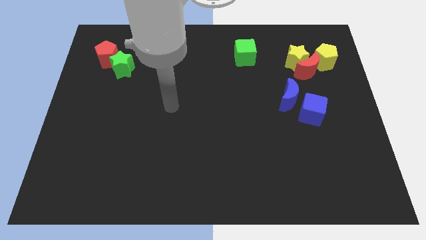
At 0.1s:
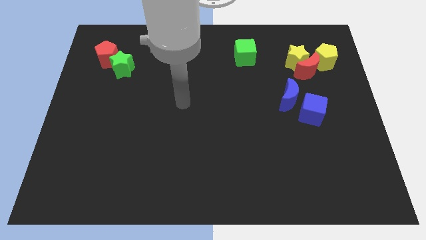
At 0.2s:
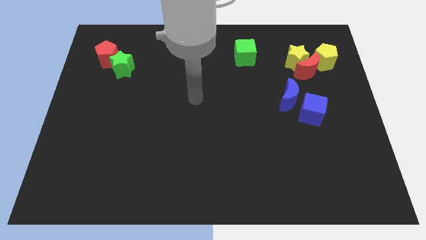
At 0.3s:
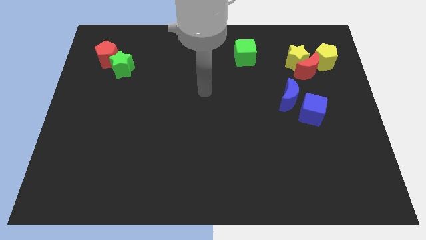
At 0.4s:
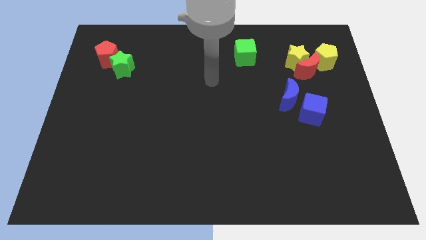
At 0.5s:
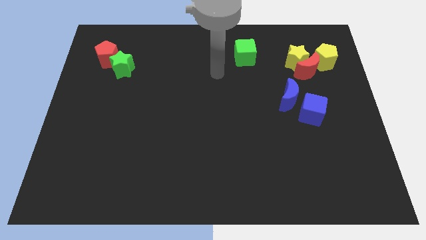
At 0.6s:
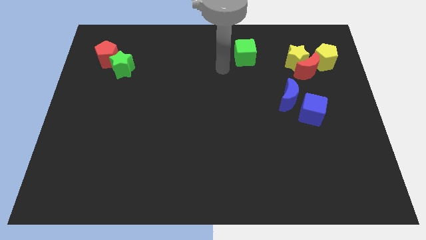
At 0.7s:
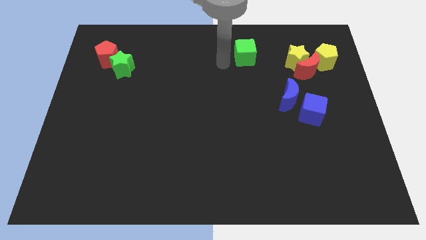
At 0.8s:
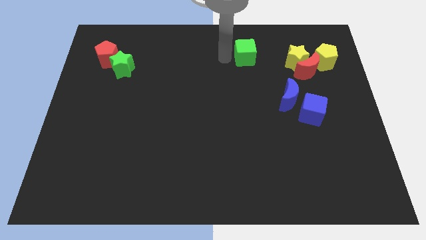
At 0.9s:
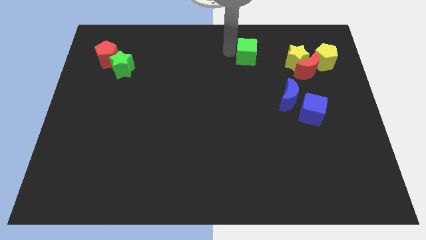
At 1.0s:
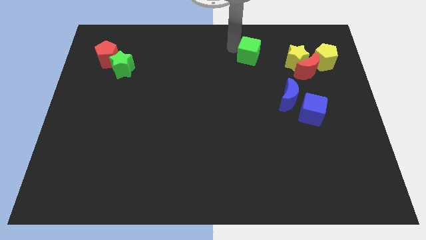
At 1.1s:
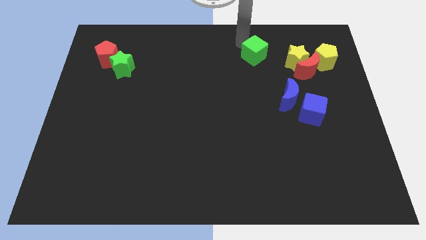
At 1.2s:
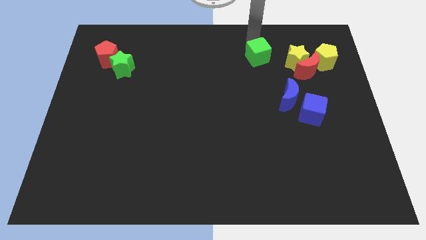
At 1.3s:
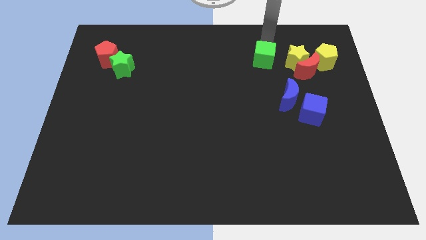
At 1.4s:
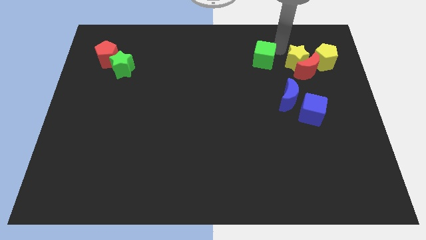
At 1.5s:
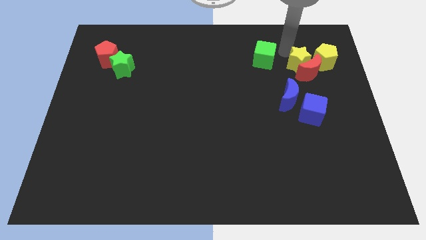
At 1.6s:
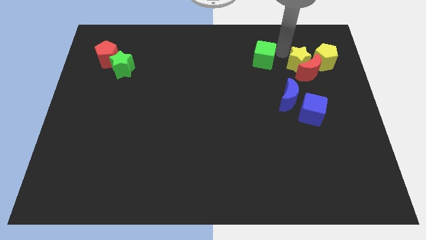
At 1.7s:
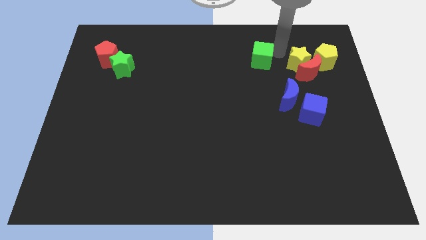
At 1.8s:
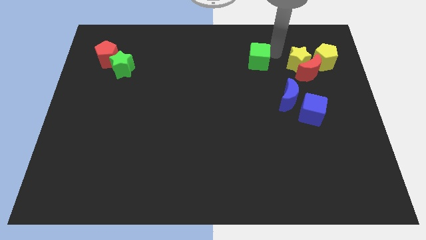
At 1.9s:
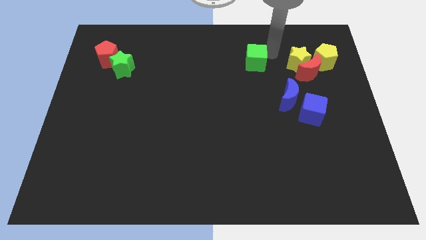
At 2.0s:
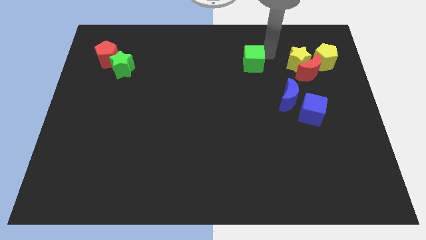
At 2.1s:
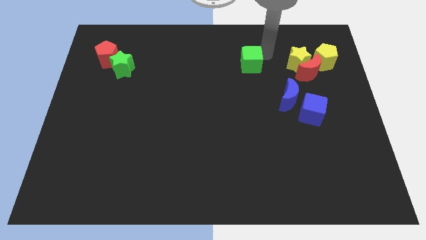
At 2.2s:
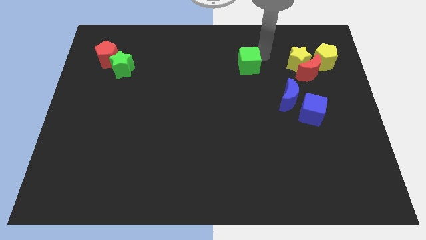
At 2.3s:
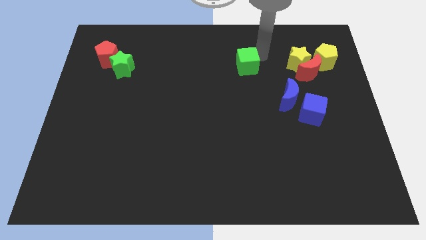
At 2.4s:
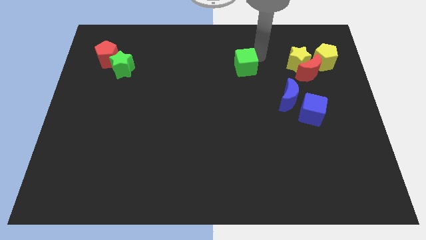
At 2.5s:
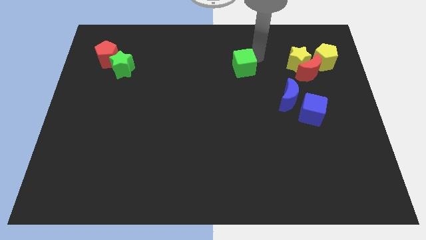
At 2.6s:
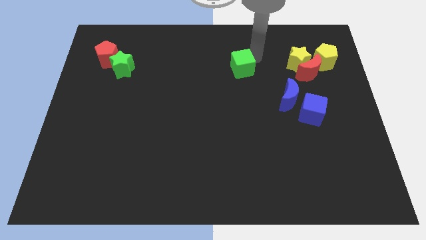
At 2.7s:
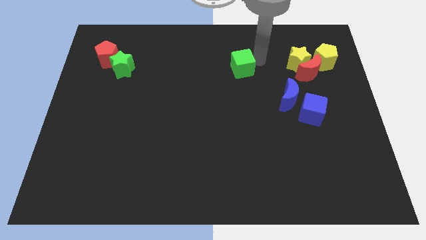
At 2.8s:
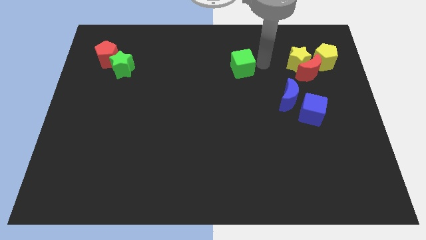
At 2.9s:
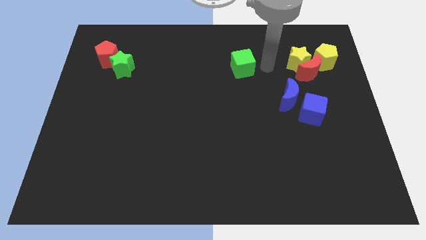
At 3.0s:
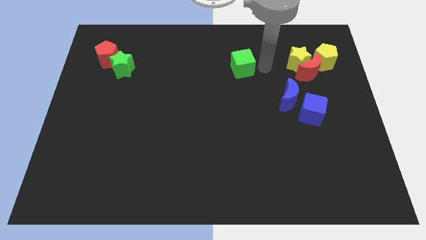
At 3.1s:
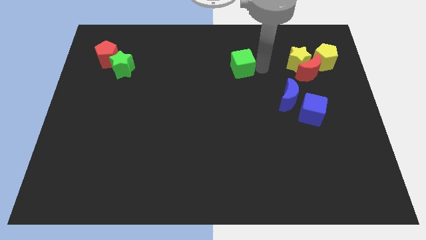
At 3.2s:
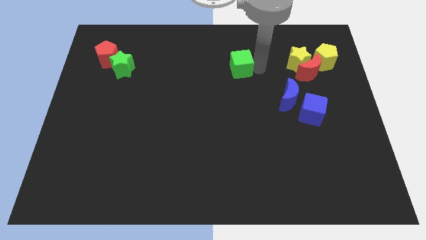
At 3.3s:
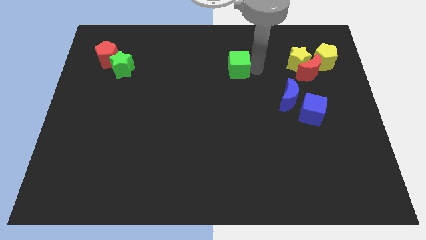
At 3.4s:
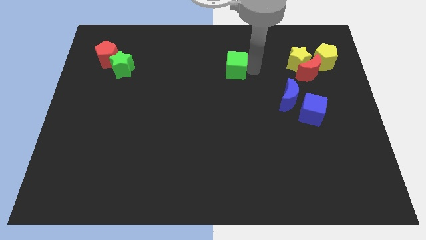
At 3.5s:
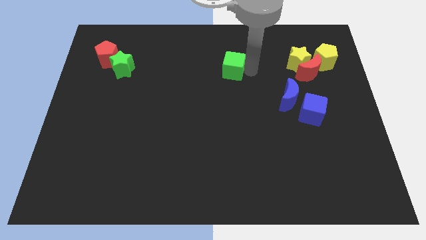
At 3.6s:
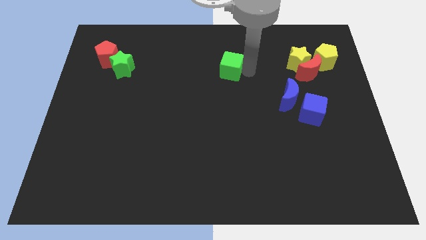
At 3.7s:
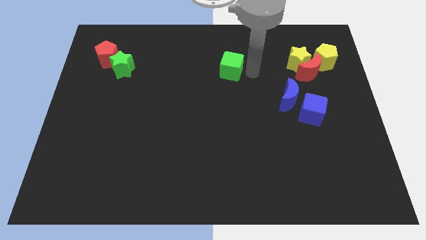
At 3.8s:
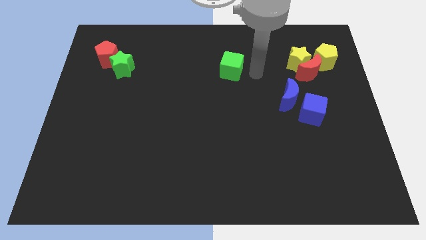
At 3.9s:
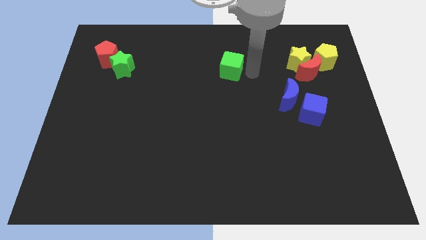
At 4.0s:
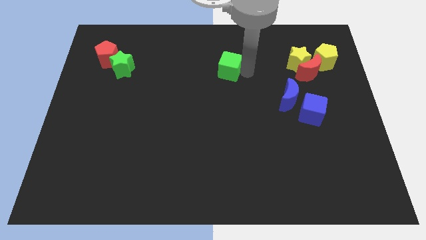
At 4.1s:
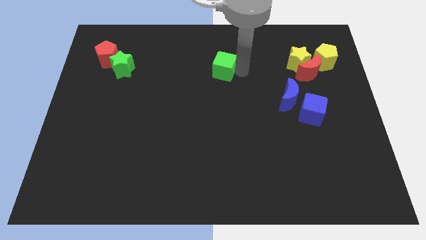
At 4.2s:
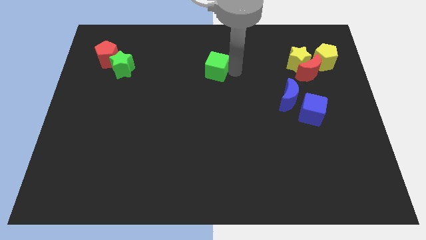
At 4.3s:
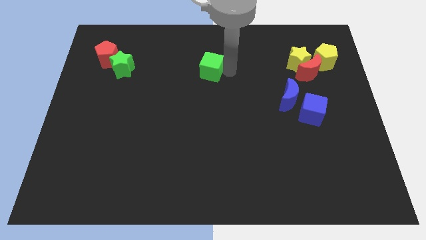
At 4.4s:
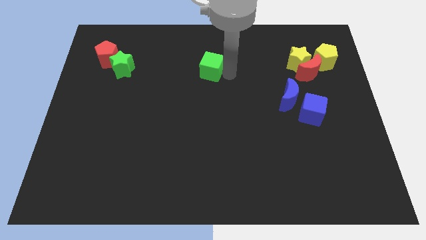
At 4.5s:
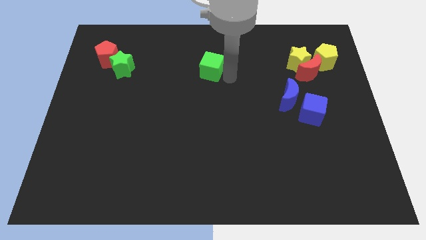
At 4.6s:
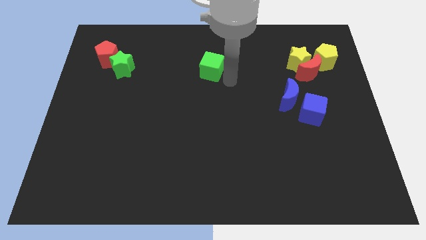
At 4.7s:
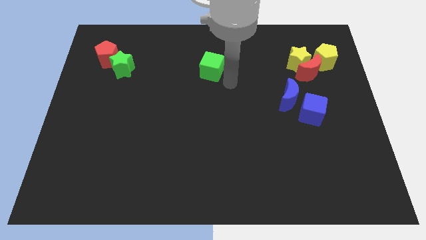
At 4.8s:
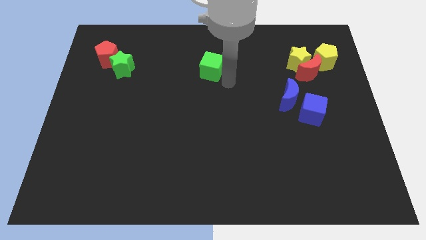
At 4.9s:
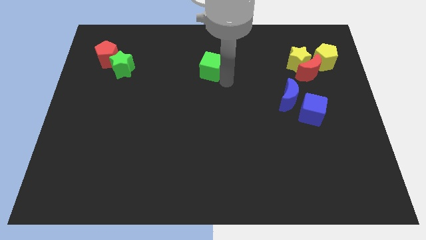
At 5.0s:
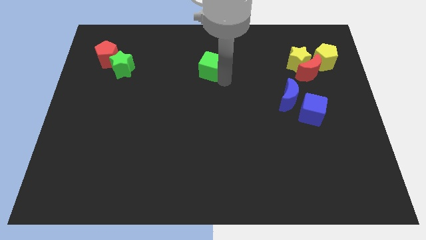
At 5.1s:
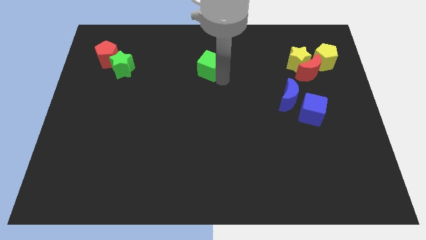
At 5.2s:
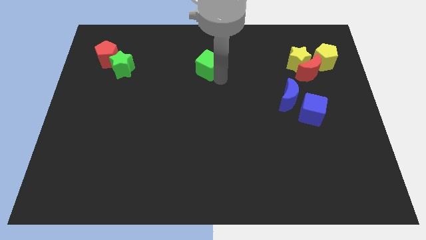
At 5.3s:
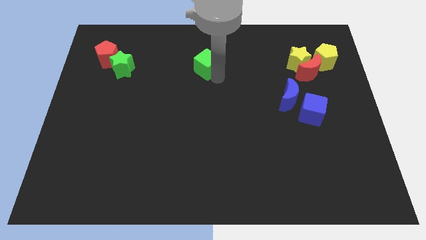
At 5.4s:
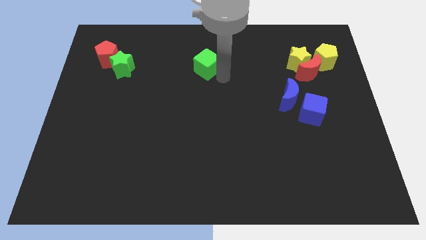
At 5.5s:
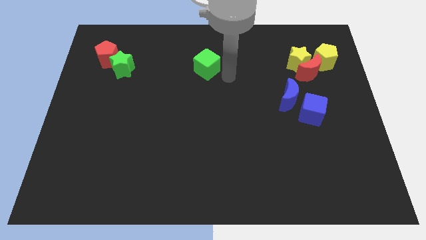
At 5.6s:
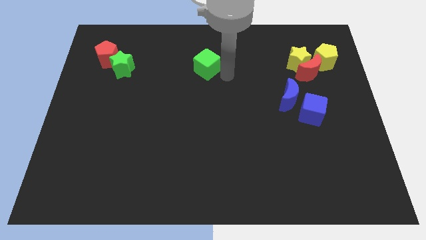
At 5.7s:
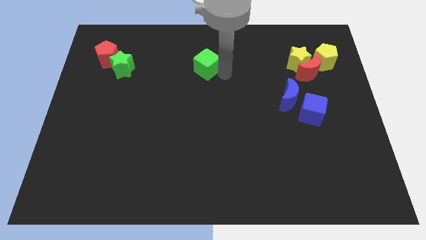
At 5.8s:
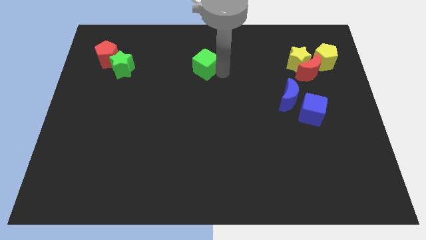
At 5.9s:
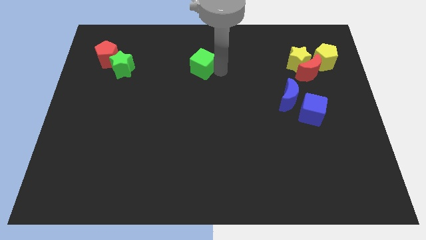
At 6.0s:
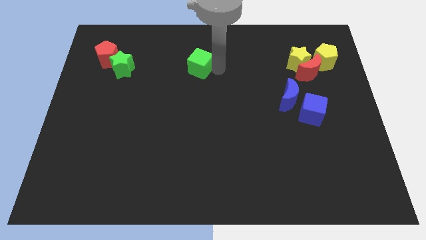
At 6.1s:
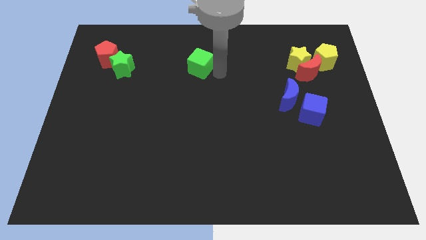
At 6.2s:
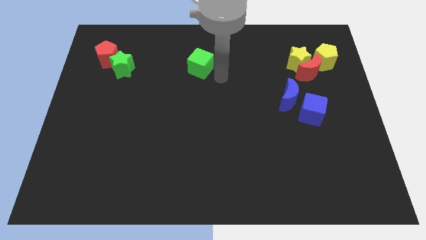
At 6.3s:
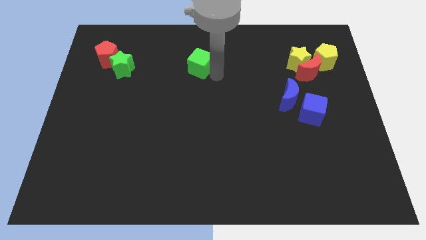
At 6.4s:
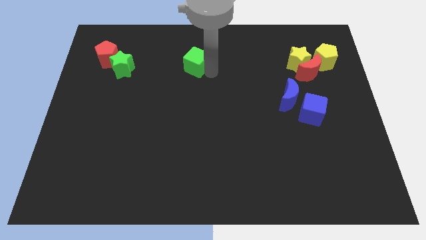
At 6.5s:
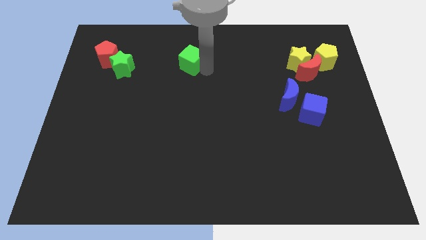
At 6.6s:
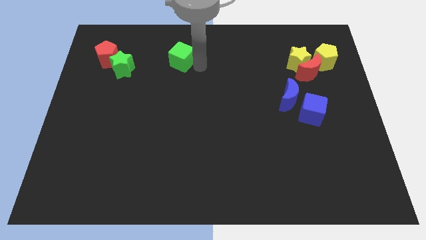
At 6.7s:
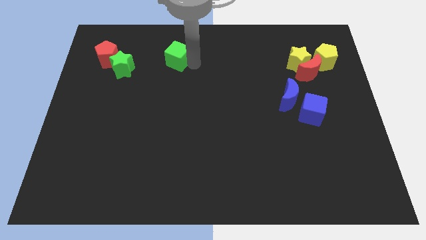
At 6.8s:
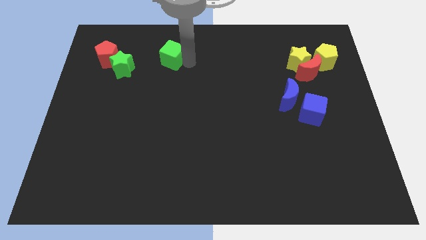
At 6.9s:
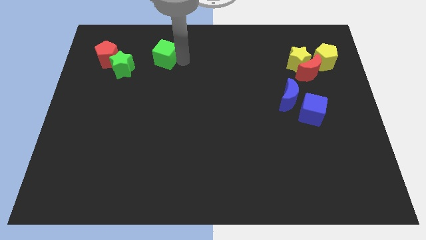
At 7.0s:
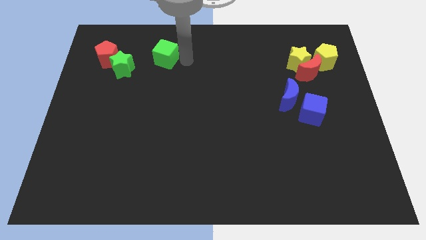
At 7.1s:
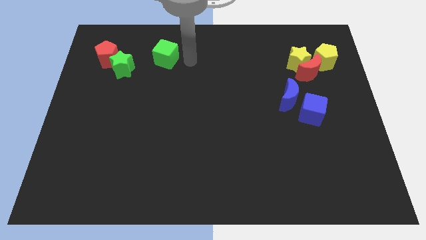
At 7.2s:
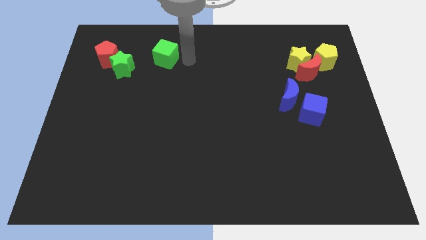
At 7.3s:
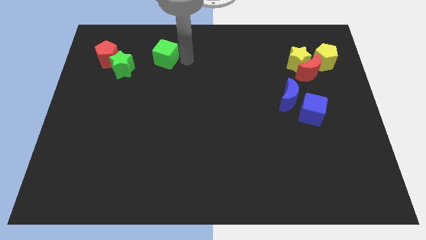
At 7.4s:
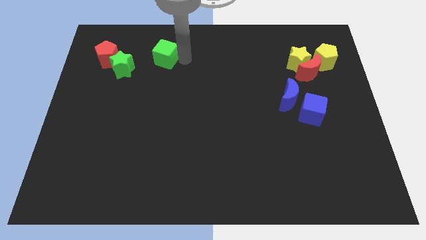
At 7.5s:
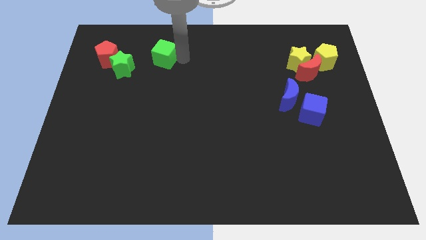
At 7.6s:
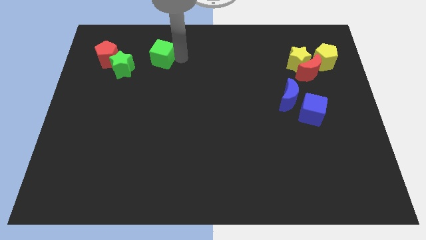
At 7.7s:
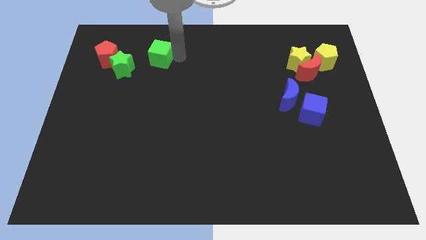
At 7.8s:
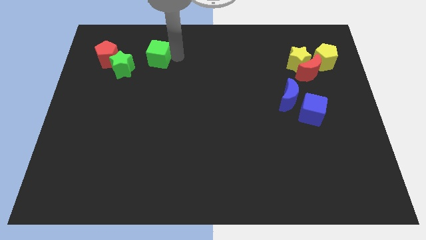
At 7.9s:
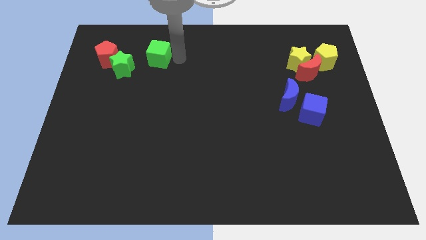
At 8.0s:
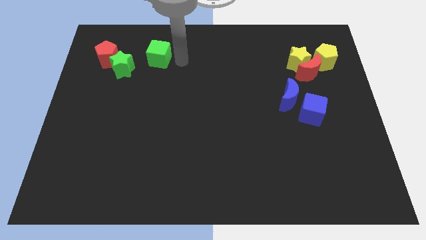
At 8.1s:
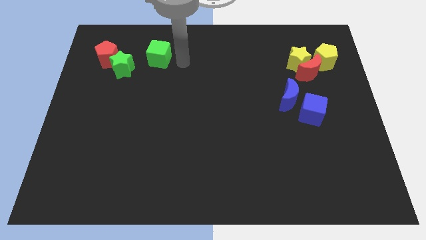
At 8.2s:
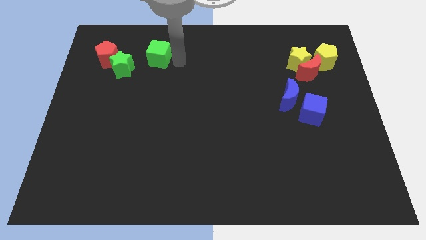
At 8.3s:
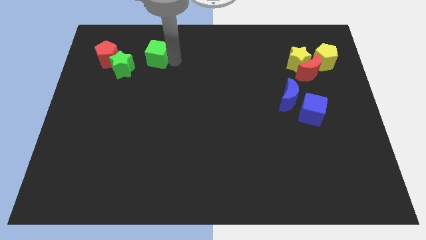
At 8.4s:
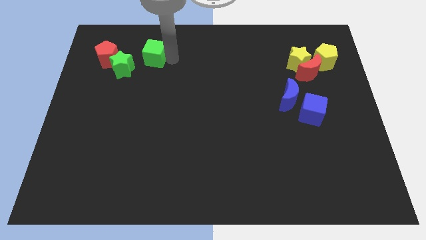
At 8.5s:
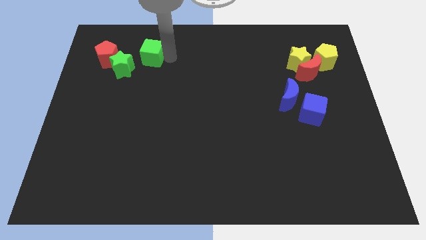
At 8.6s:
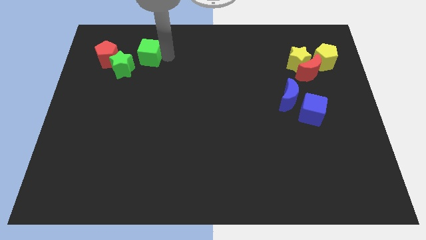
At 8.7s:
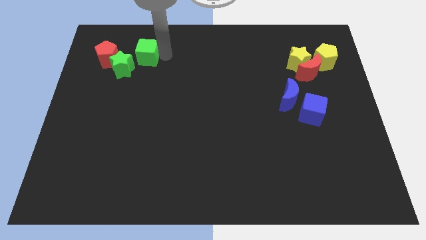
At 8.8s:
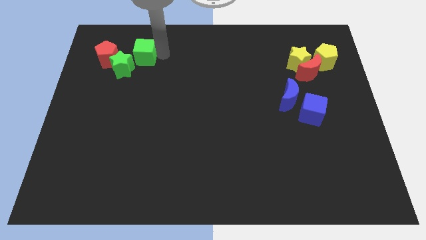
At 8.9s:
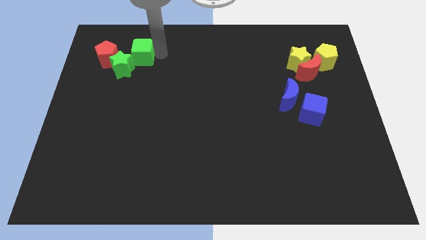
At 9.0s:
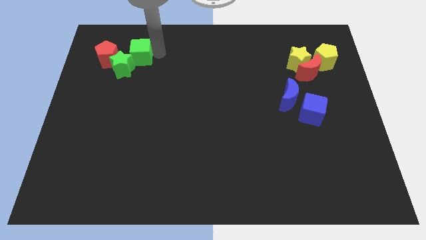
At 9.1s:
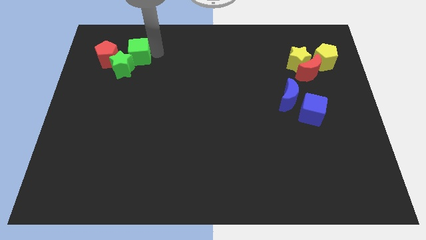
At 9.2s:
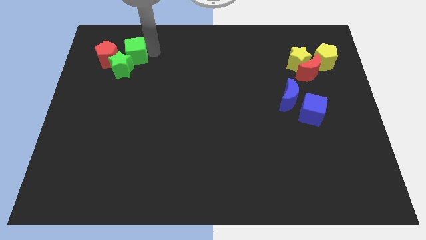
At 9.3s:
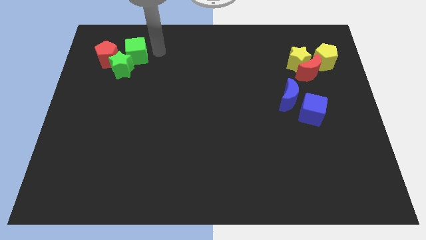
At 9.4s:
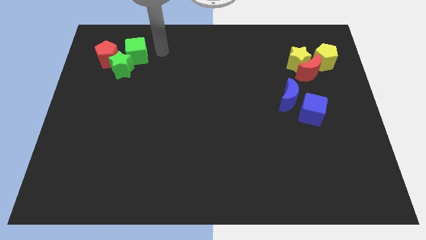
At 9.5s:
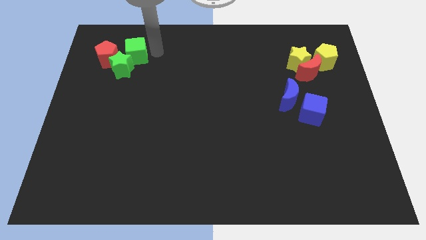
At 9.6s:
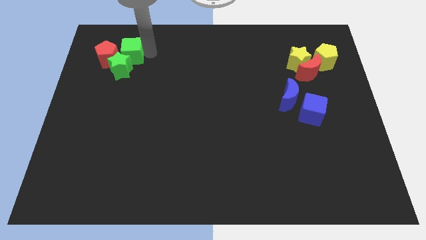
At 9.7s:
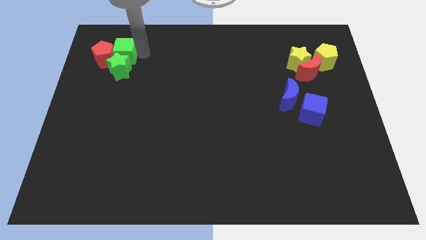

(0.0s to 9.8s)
slide the green cube close to the red pentagon
